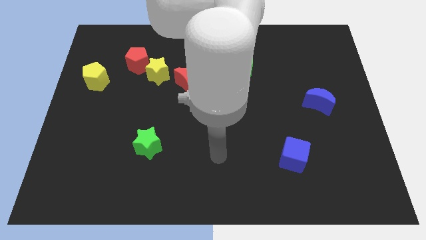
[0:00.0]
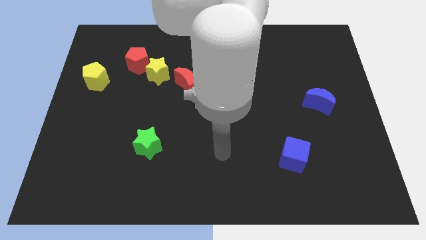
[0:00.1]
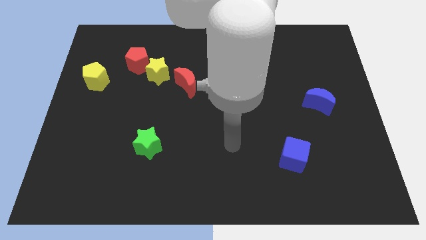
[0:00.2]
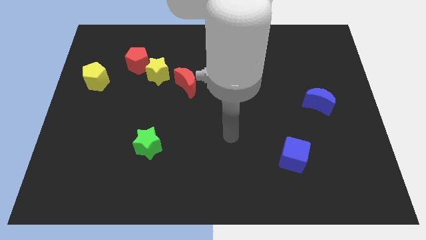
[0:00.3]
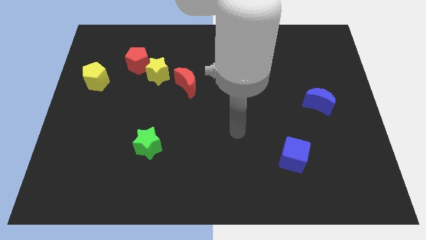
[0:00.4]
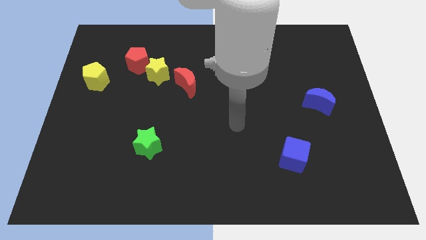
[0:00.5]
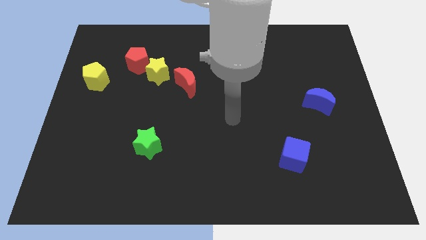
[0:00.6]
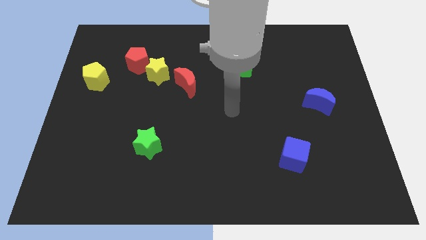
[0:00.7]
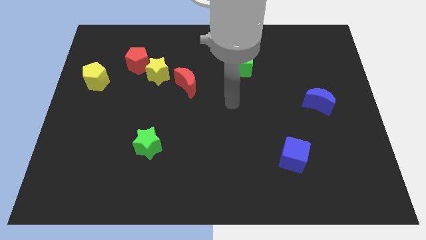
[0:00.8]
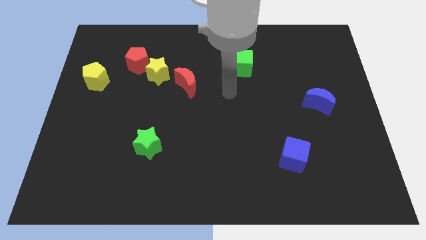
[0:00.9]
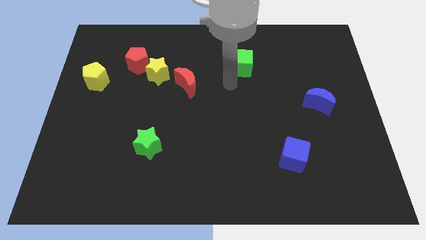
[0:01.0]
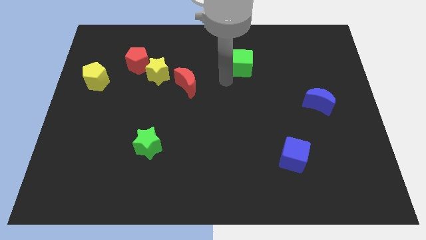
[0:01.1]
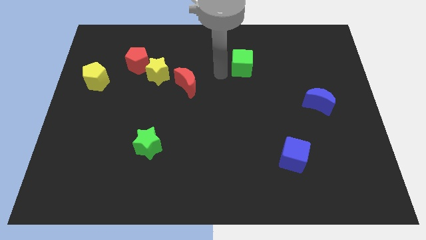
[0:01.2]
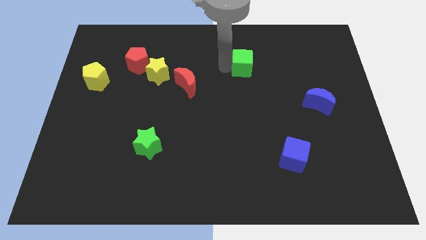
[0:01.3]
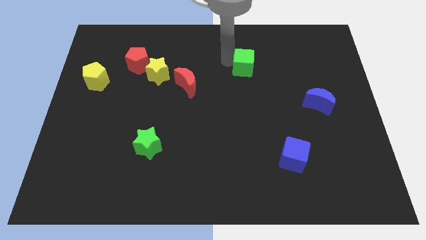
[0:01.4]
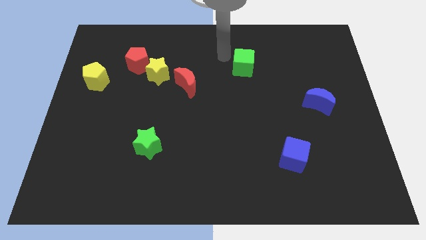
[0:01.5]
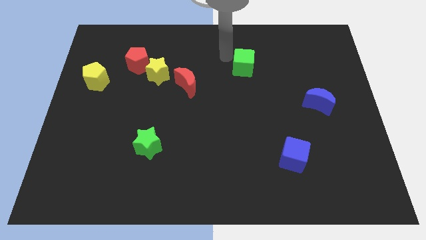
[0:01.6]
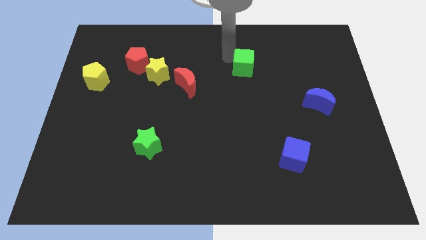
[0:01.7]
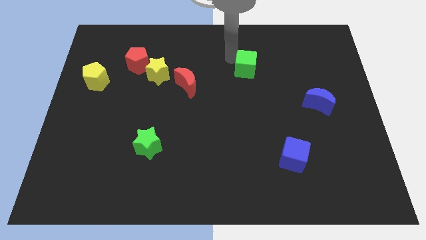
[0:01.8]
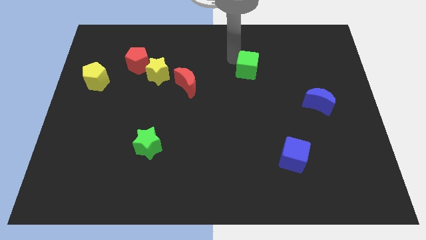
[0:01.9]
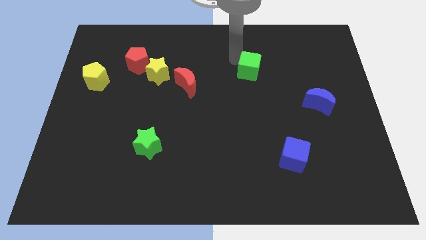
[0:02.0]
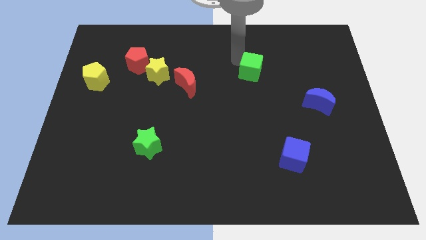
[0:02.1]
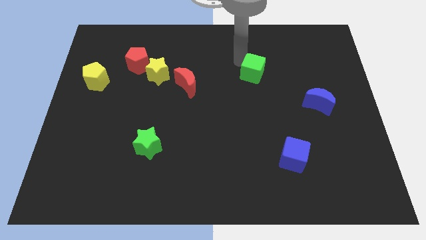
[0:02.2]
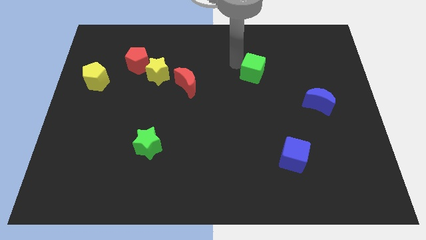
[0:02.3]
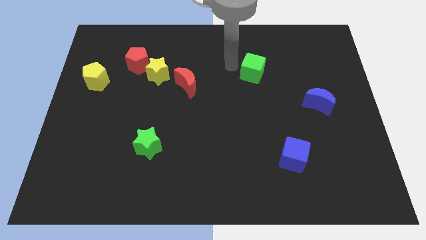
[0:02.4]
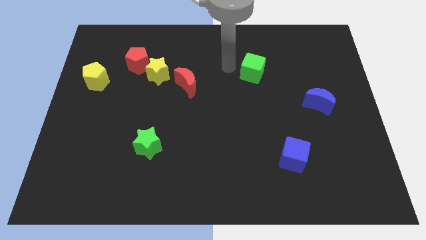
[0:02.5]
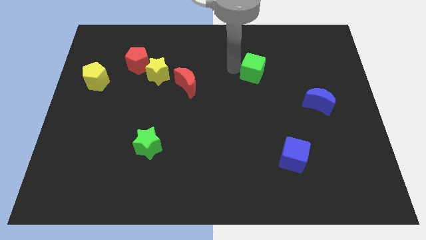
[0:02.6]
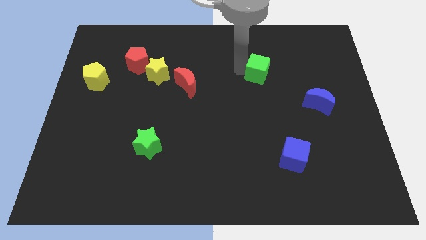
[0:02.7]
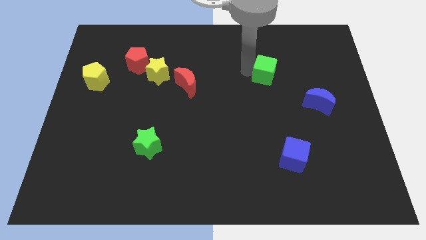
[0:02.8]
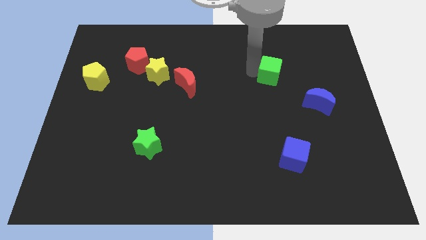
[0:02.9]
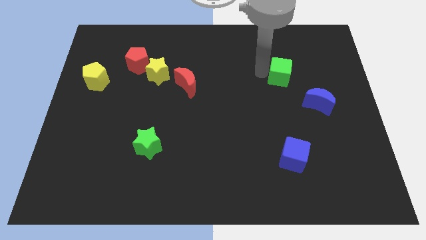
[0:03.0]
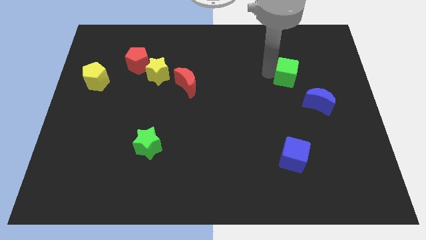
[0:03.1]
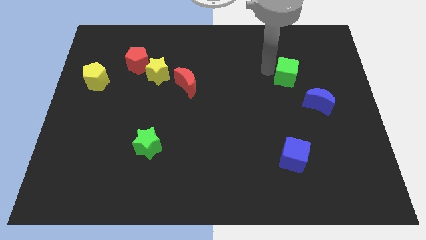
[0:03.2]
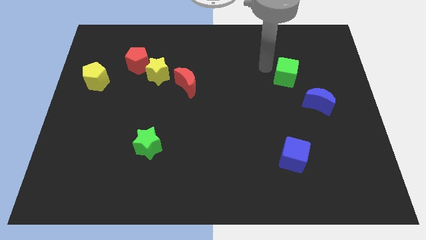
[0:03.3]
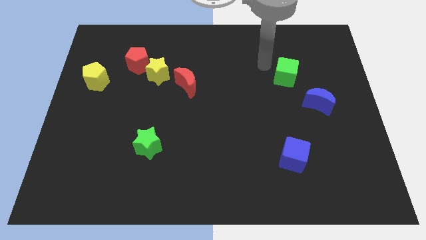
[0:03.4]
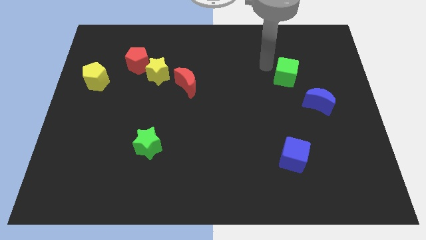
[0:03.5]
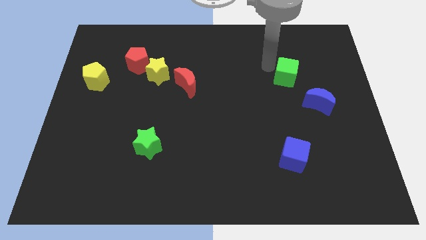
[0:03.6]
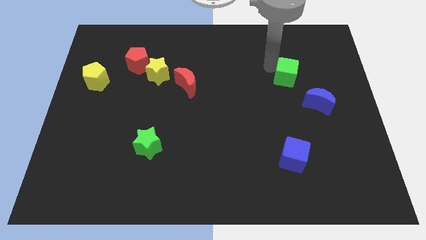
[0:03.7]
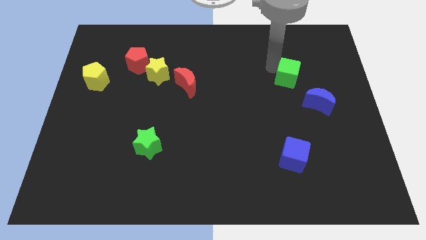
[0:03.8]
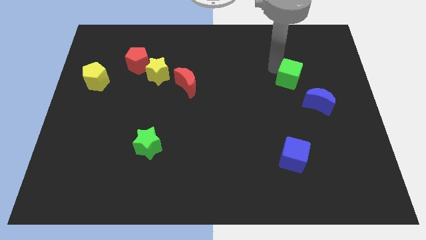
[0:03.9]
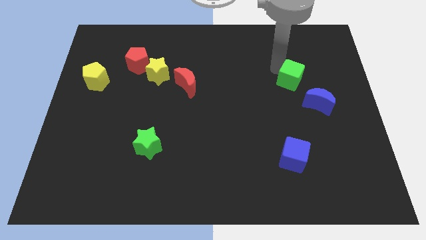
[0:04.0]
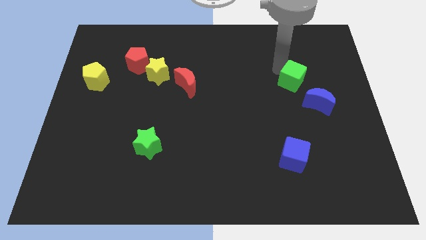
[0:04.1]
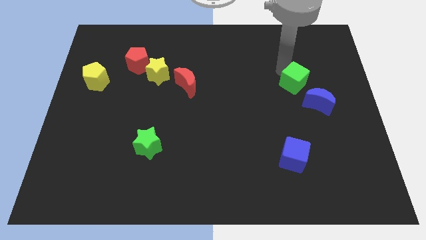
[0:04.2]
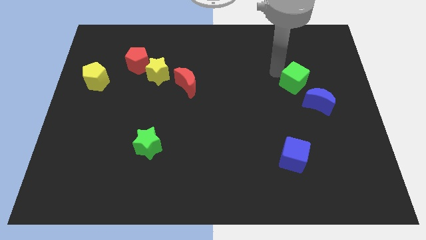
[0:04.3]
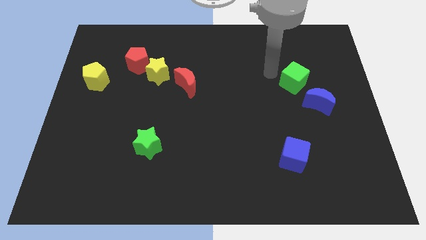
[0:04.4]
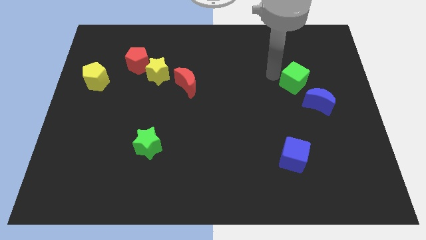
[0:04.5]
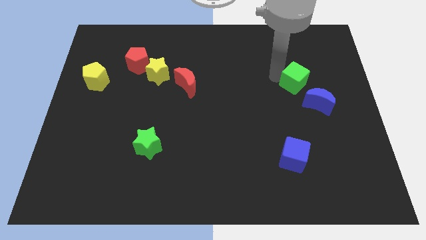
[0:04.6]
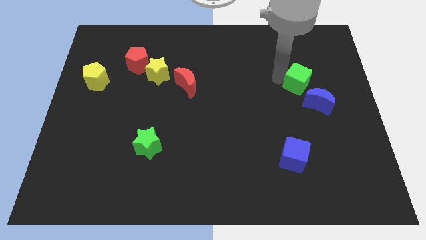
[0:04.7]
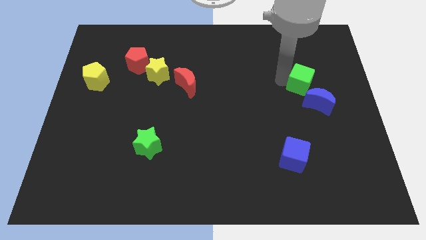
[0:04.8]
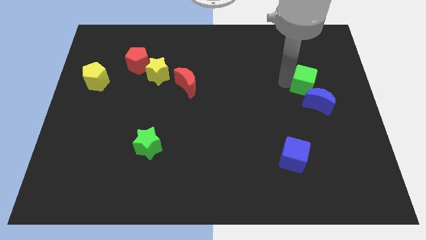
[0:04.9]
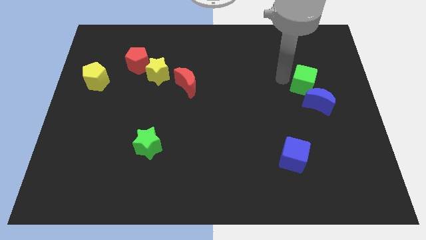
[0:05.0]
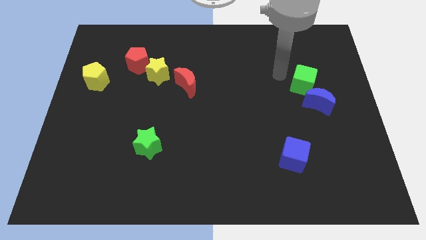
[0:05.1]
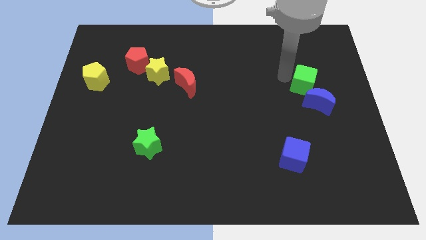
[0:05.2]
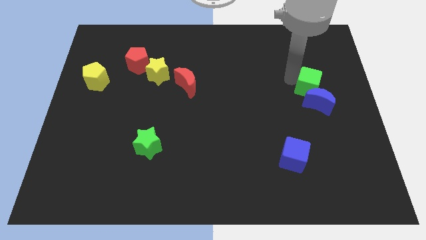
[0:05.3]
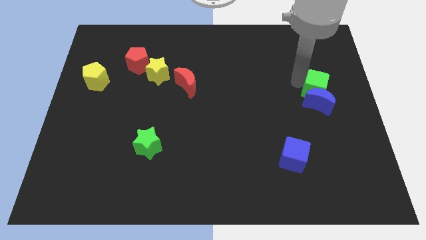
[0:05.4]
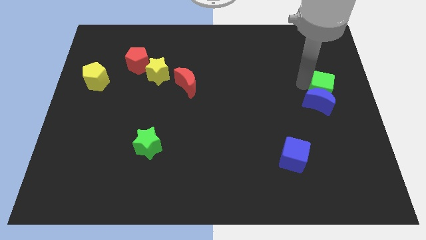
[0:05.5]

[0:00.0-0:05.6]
slide the green cube to the center right

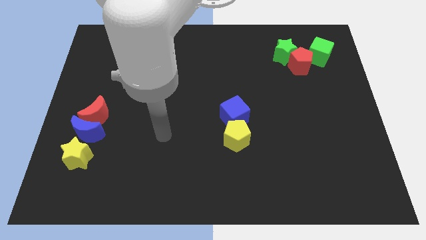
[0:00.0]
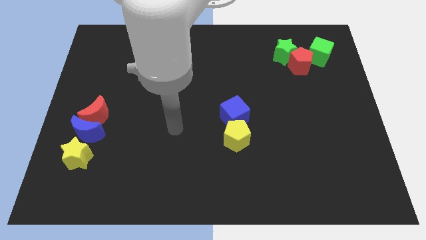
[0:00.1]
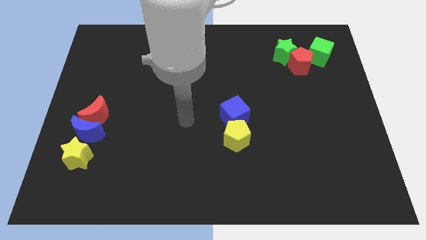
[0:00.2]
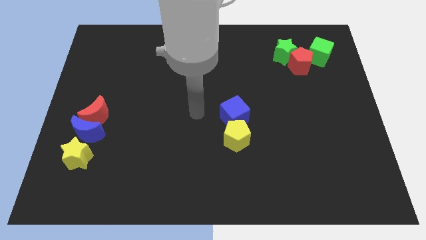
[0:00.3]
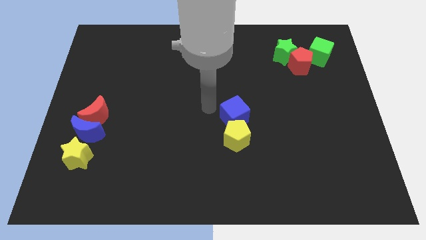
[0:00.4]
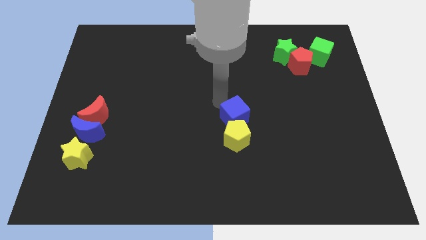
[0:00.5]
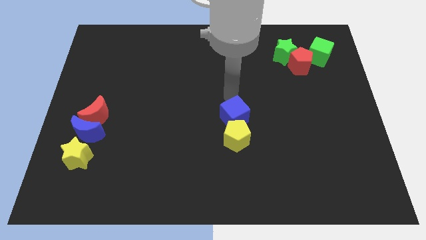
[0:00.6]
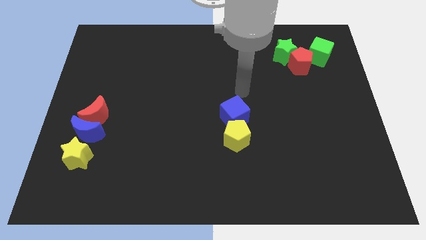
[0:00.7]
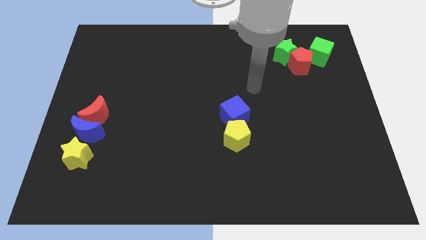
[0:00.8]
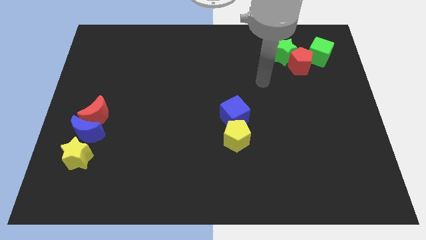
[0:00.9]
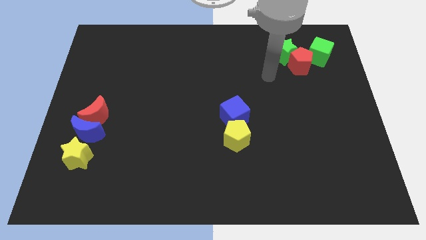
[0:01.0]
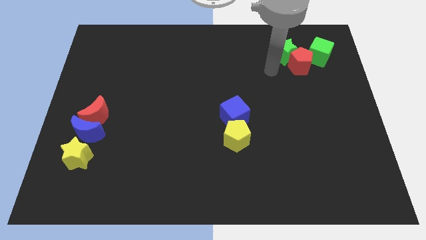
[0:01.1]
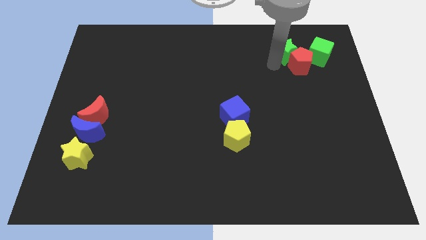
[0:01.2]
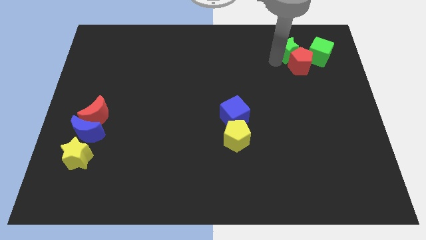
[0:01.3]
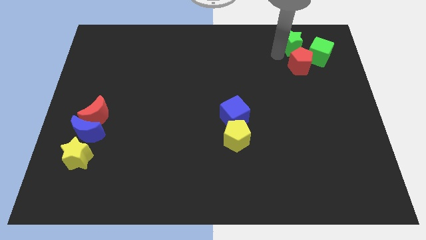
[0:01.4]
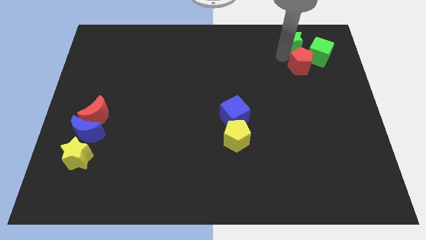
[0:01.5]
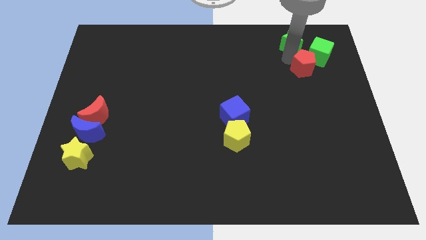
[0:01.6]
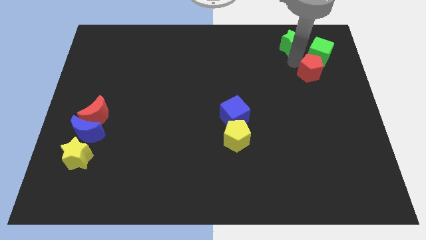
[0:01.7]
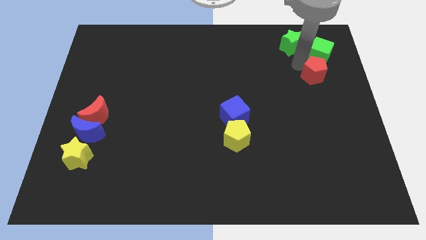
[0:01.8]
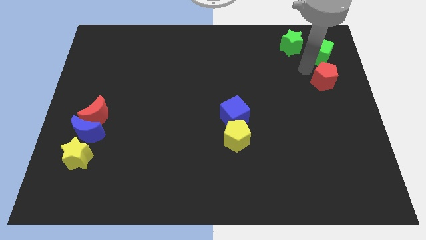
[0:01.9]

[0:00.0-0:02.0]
put the red pentagon to the right side of the board

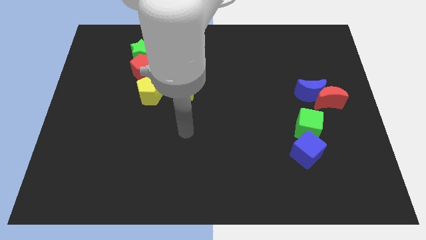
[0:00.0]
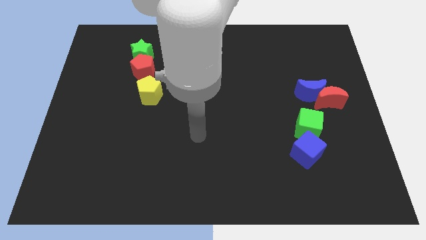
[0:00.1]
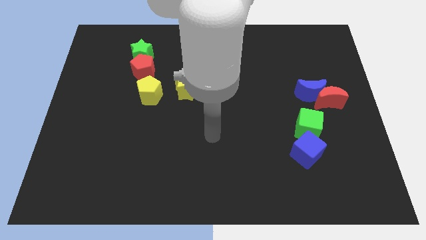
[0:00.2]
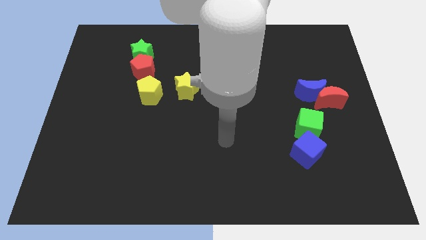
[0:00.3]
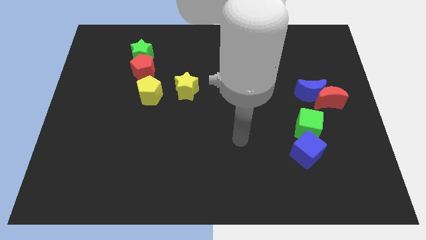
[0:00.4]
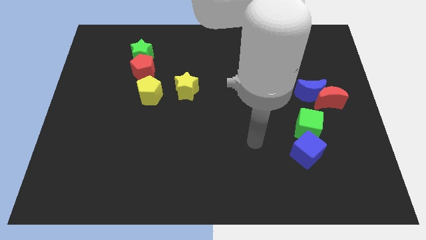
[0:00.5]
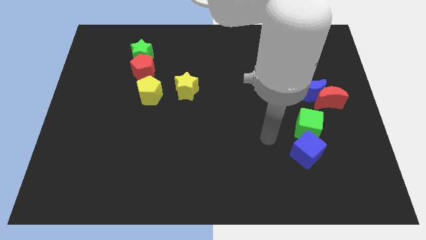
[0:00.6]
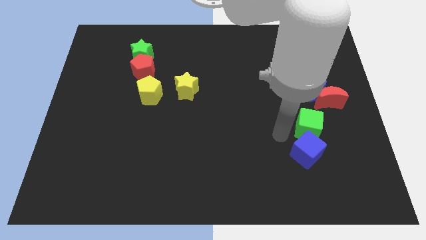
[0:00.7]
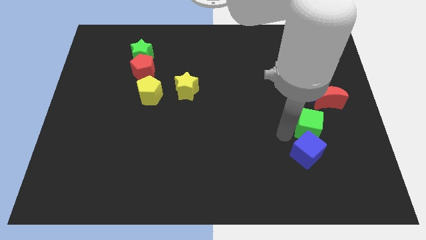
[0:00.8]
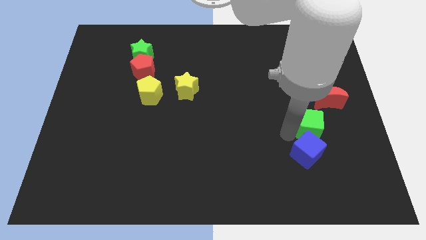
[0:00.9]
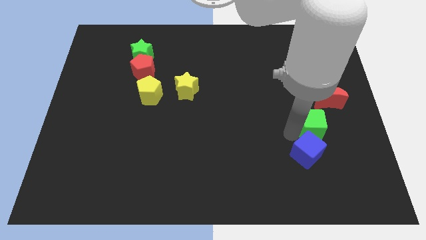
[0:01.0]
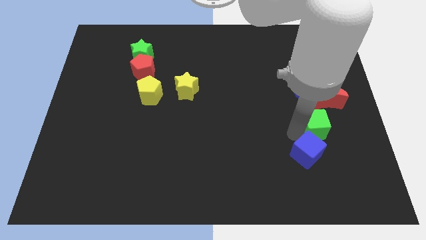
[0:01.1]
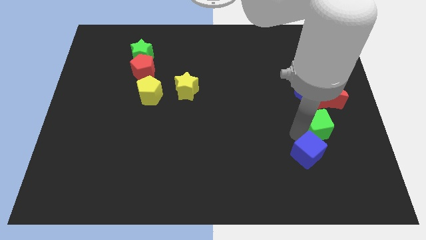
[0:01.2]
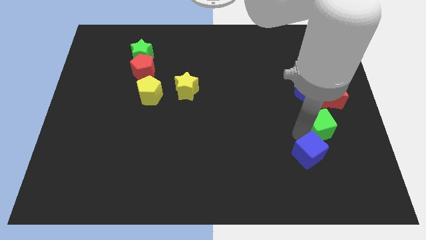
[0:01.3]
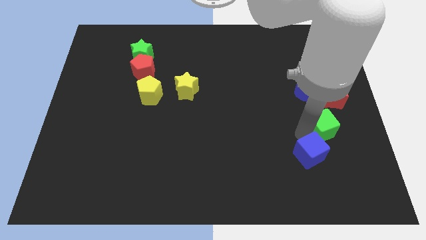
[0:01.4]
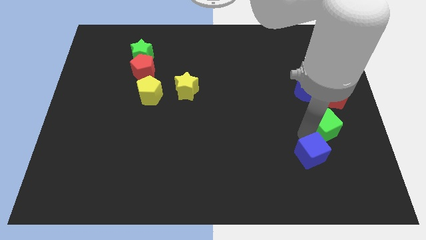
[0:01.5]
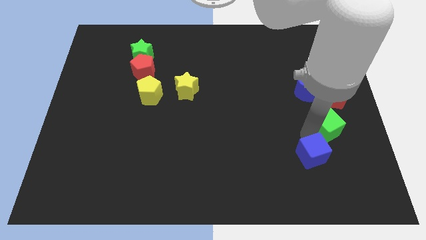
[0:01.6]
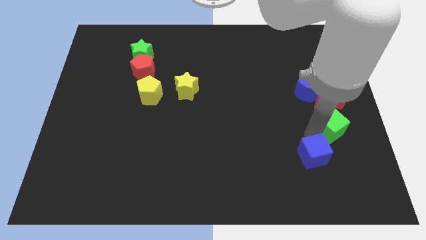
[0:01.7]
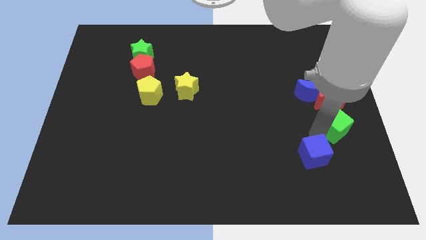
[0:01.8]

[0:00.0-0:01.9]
move the green cube to the right side
